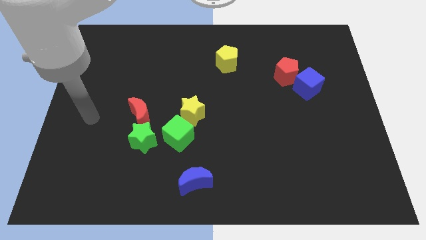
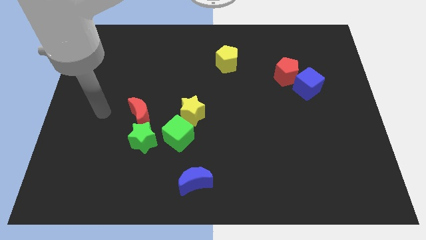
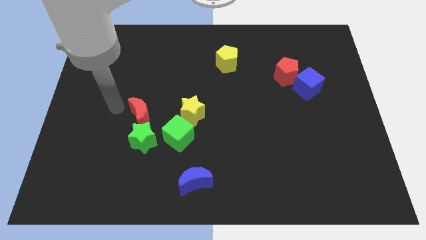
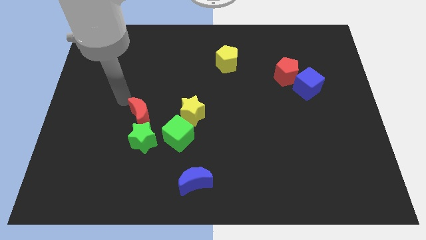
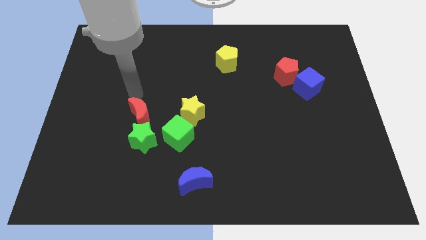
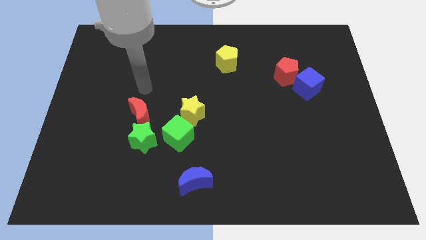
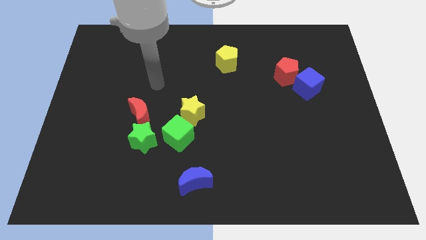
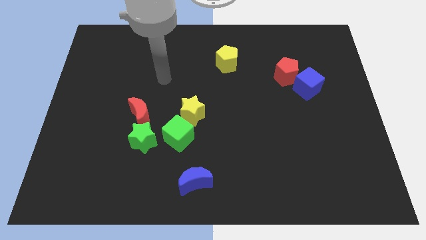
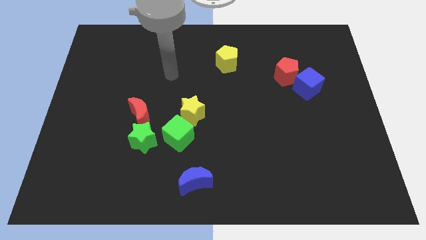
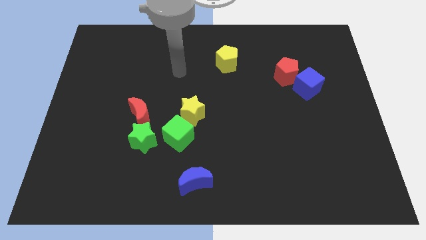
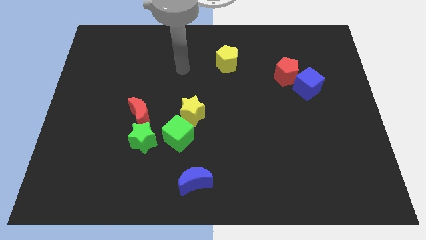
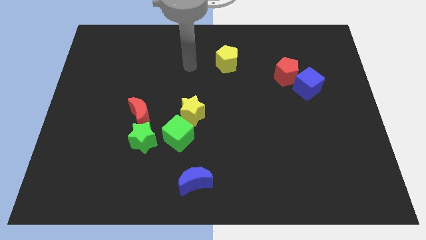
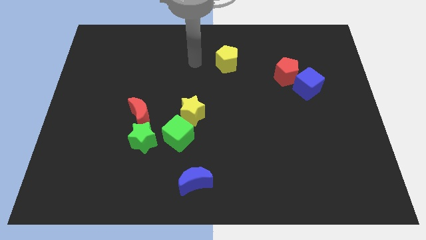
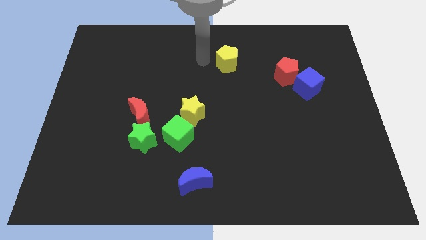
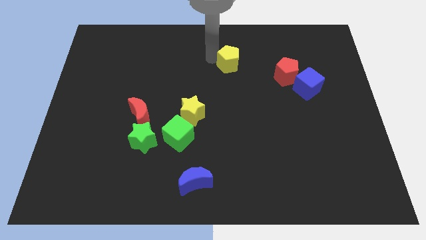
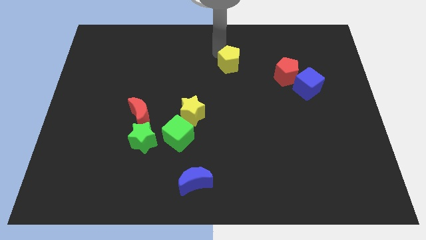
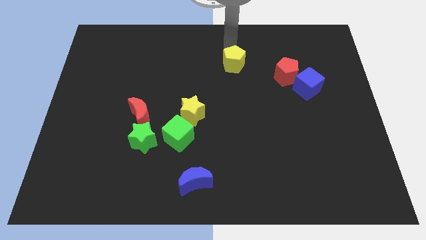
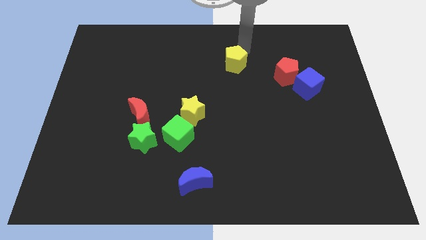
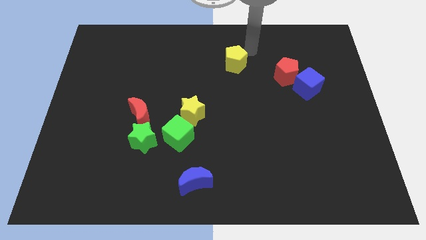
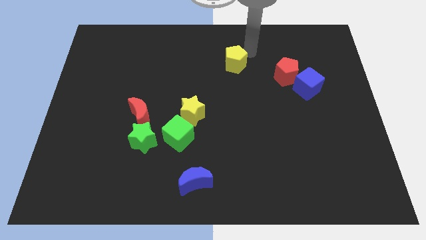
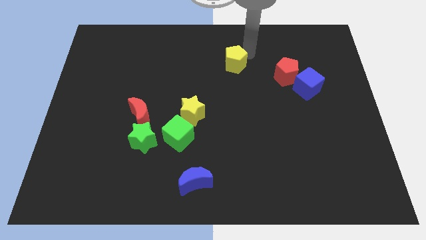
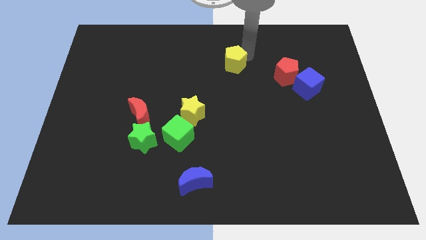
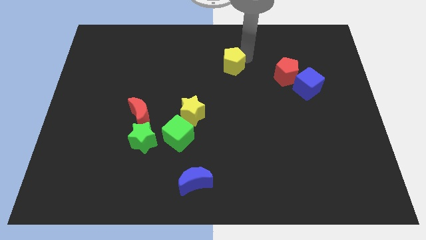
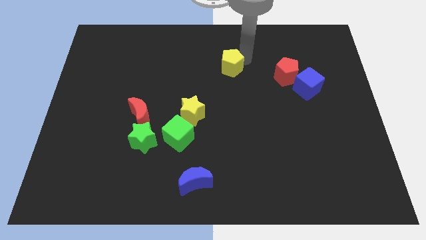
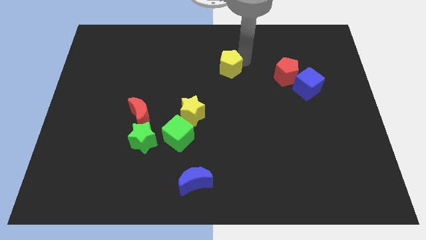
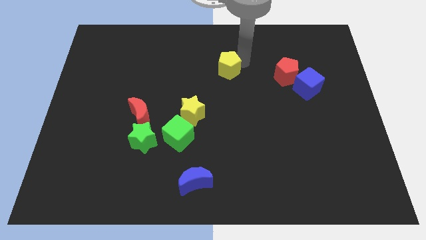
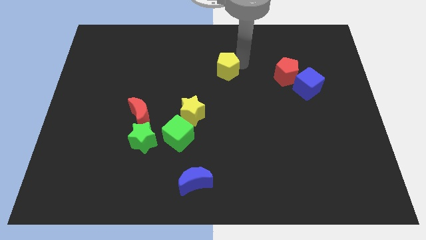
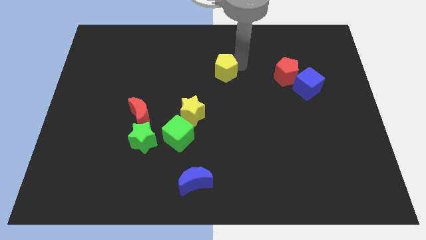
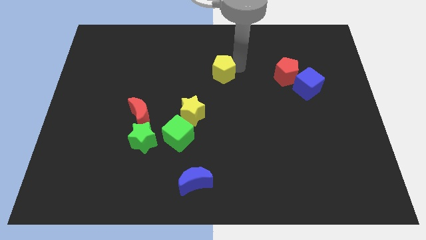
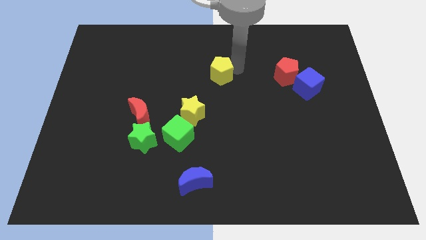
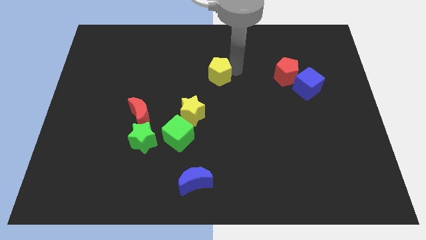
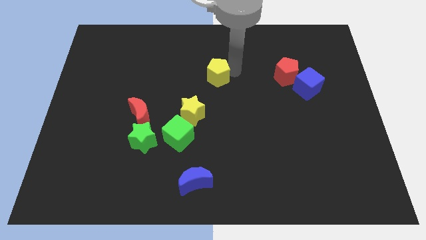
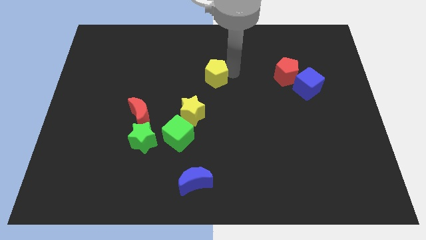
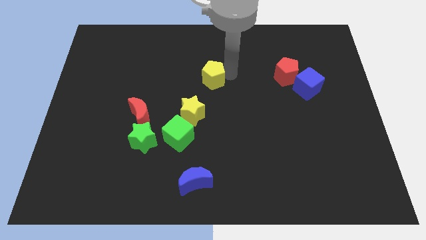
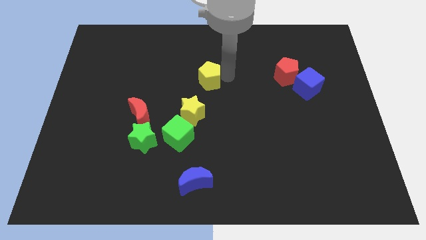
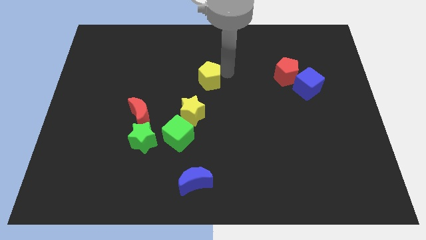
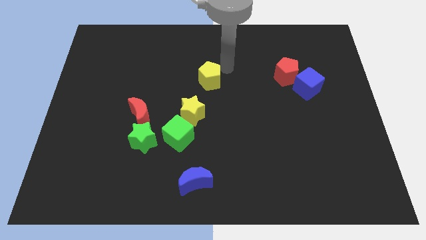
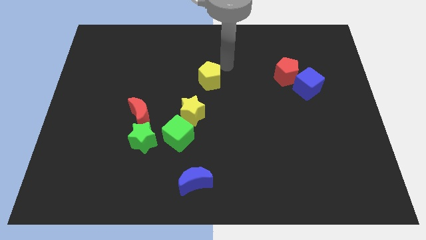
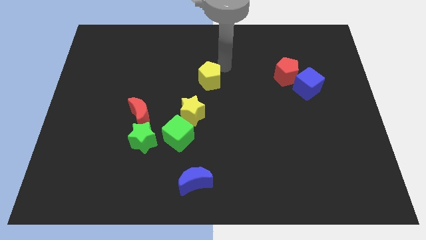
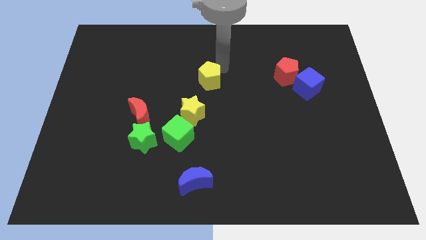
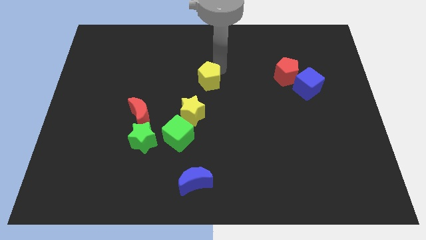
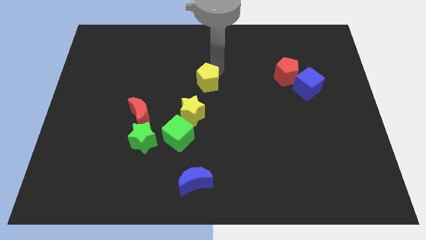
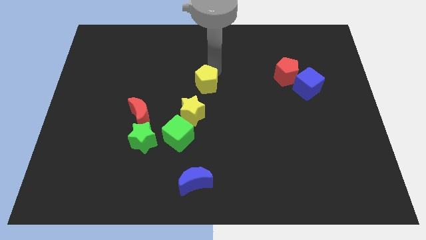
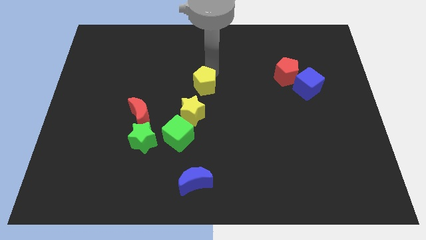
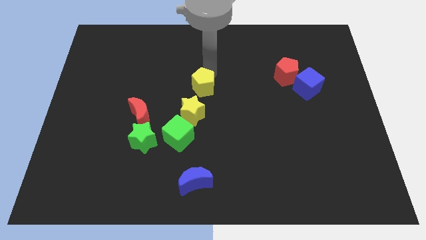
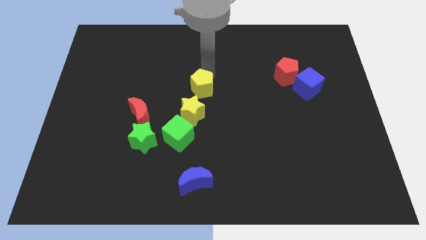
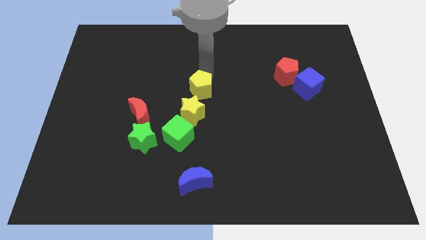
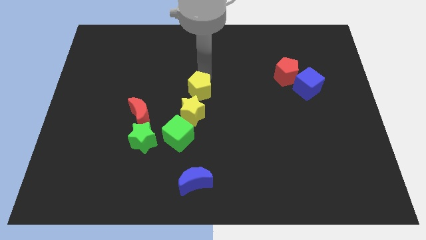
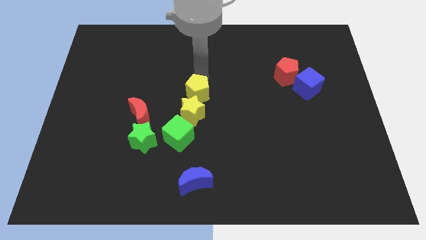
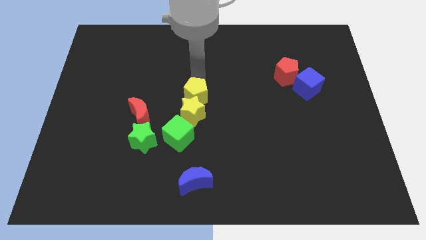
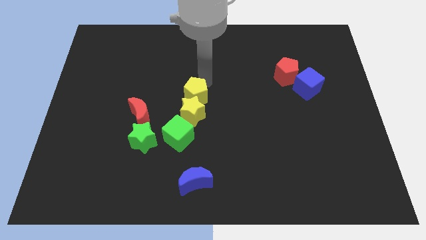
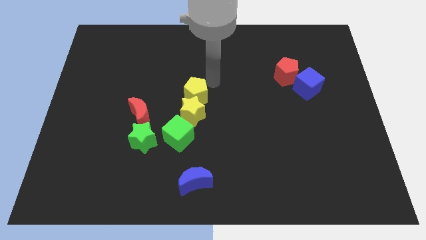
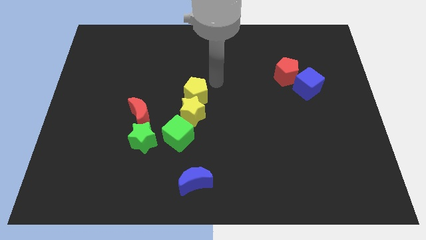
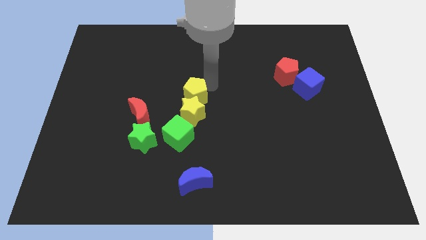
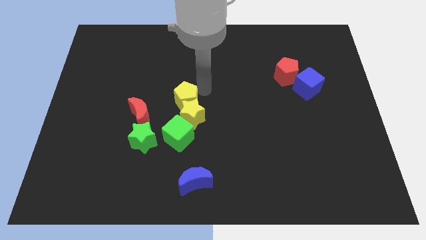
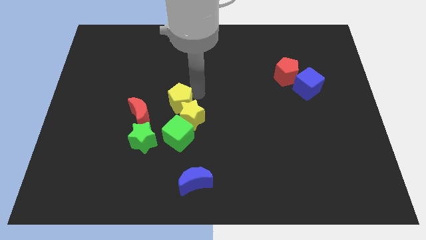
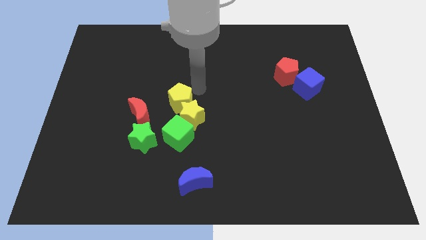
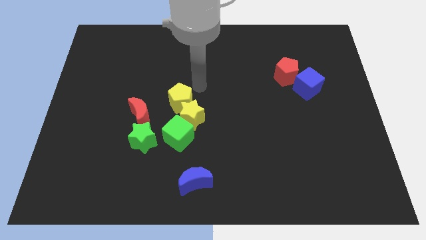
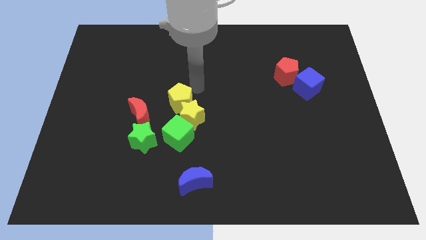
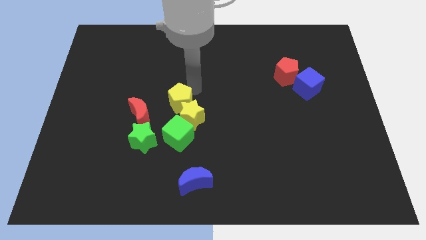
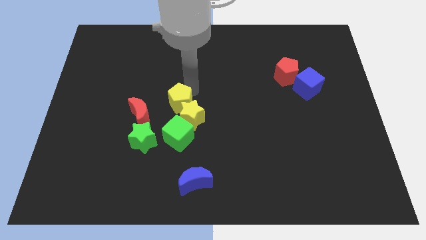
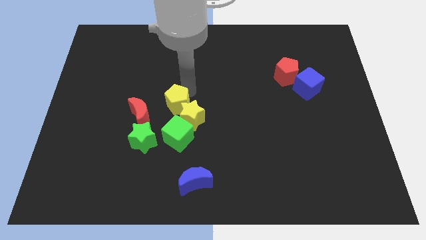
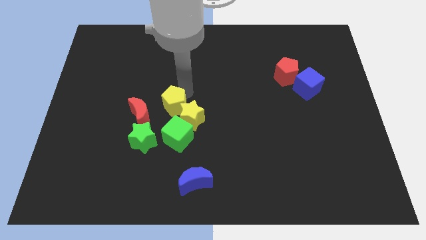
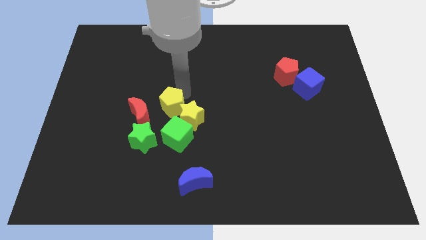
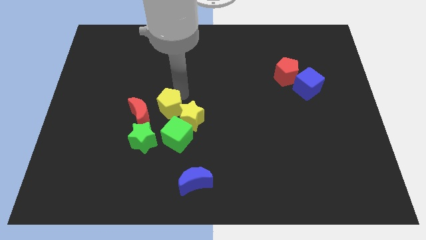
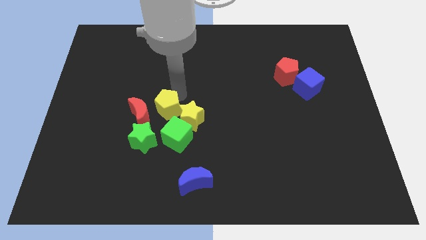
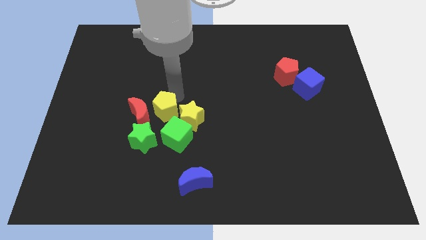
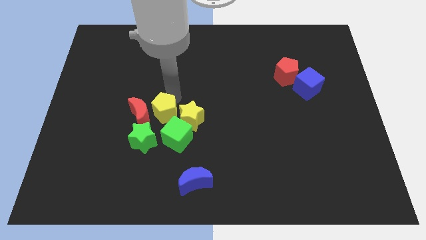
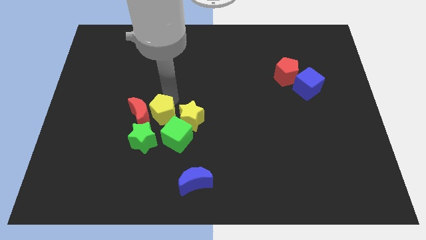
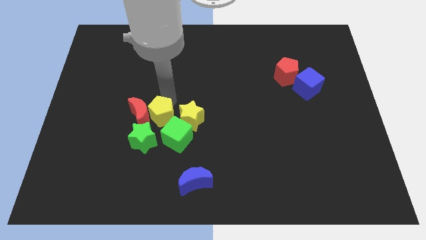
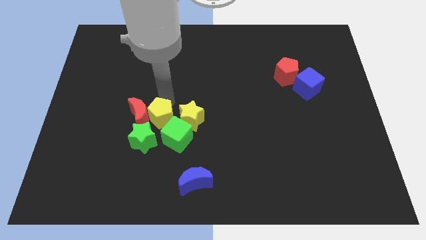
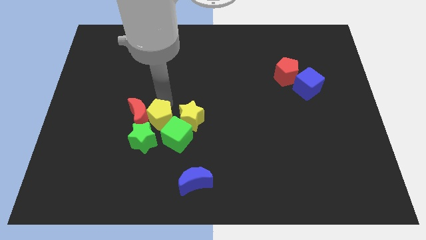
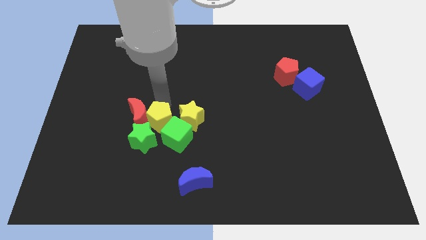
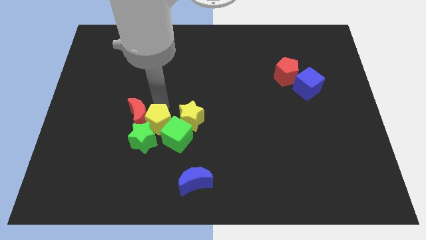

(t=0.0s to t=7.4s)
move the yellow pentagon towards the green star
